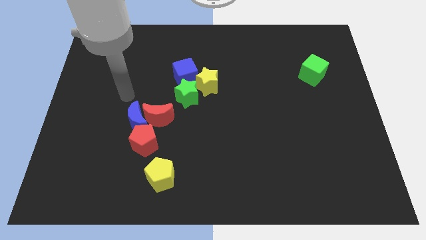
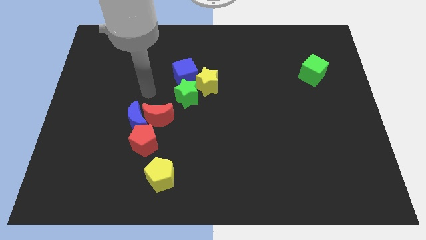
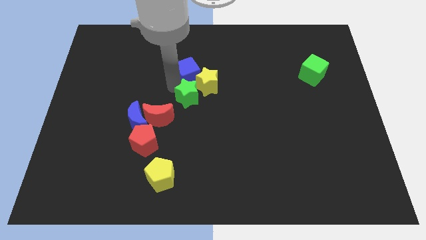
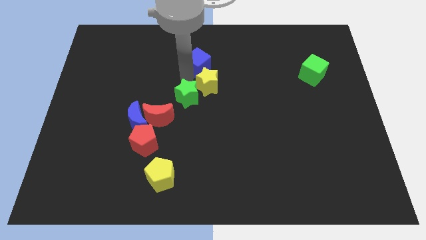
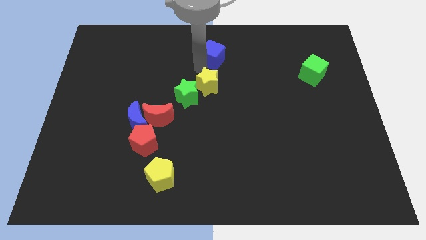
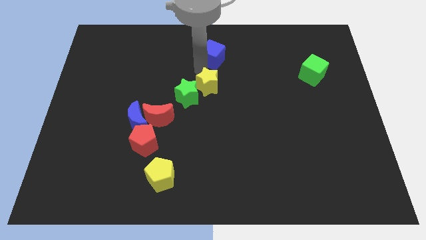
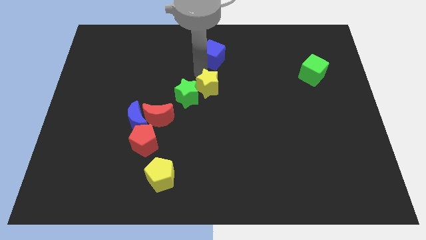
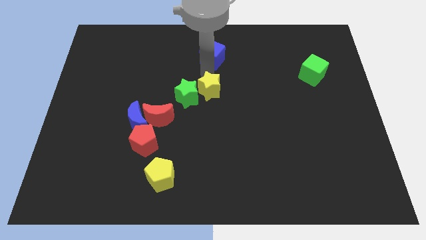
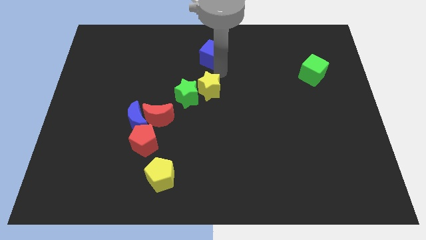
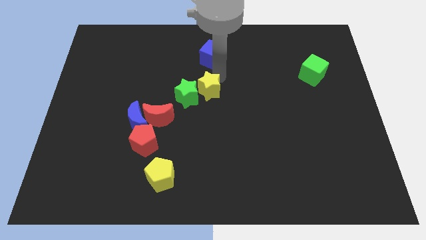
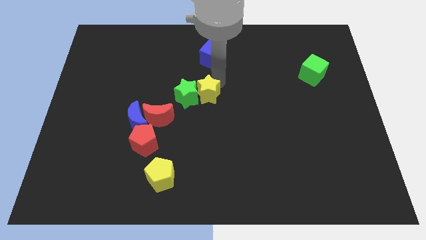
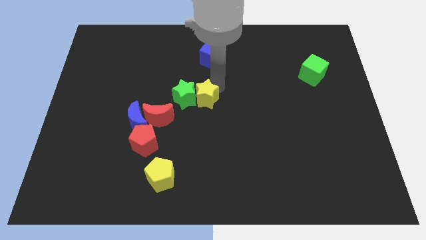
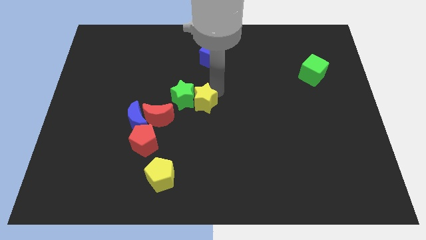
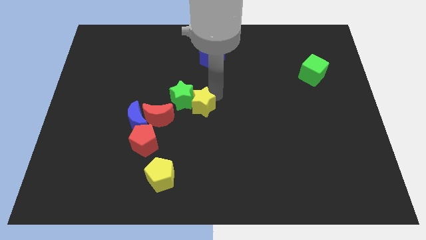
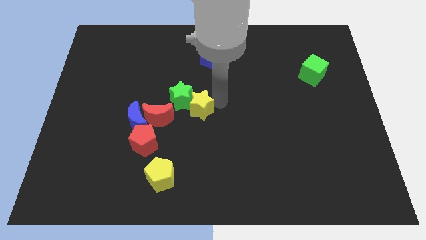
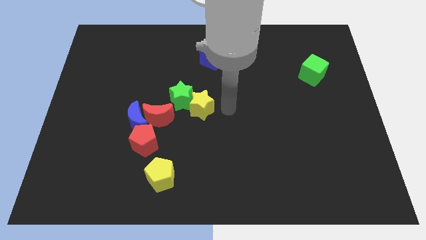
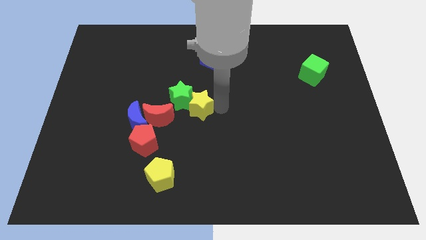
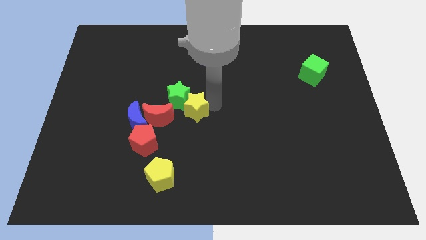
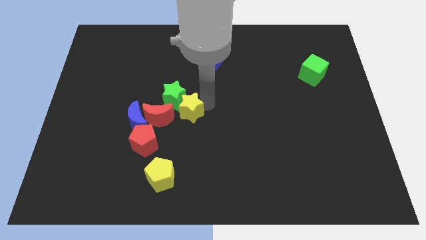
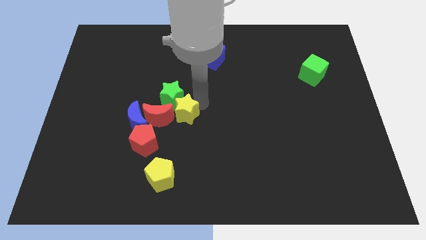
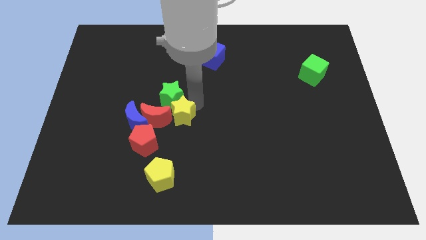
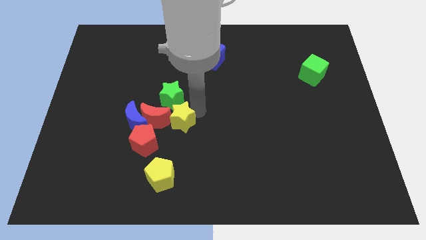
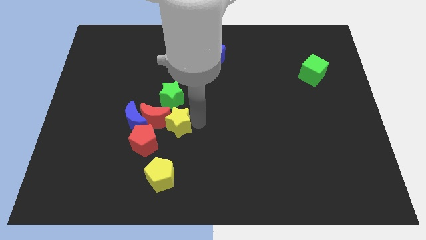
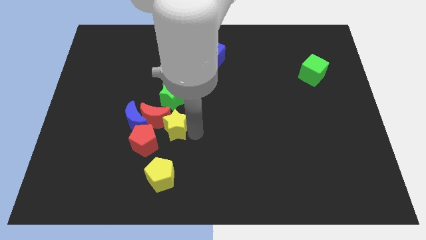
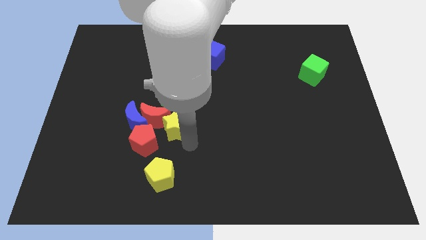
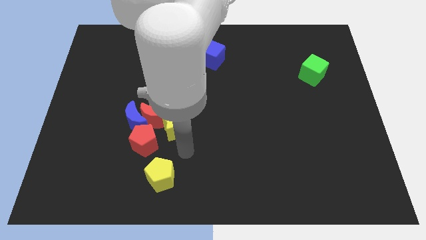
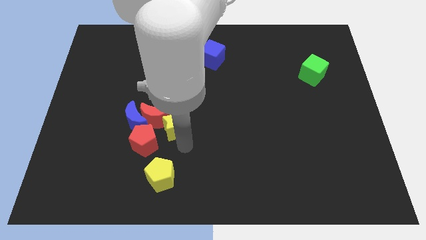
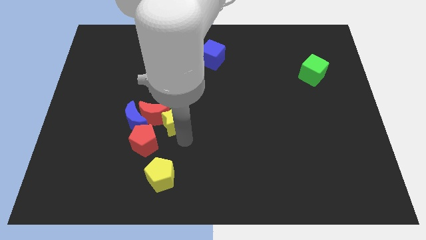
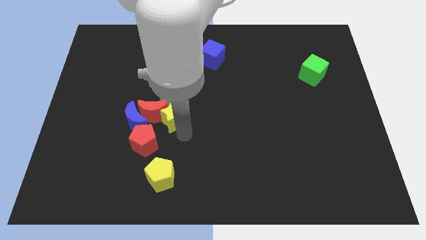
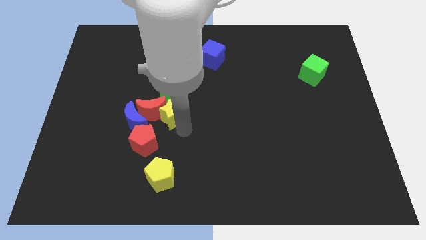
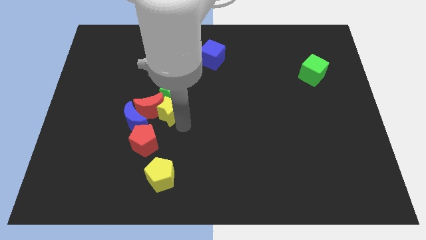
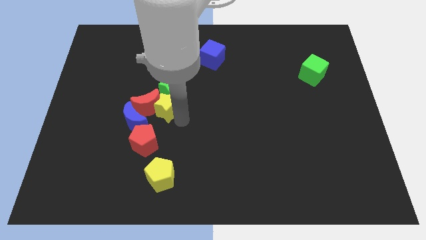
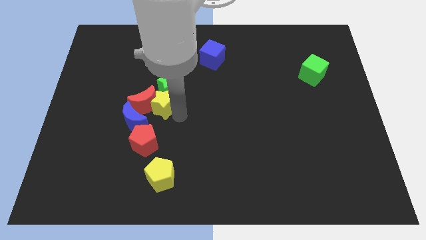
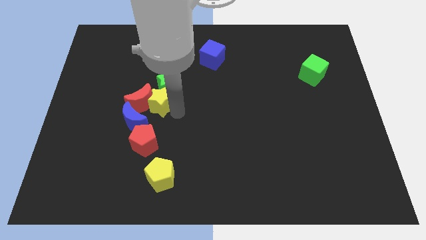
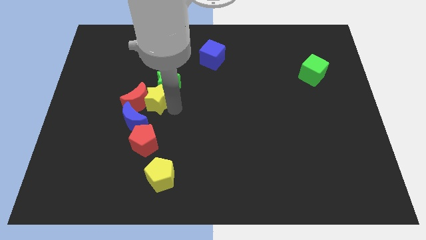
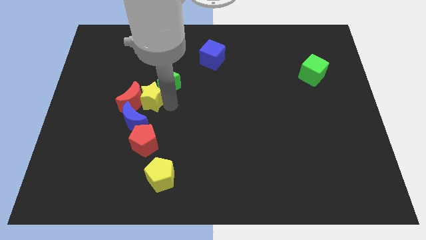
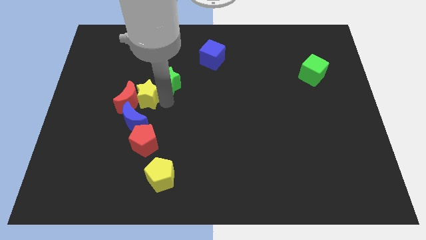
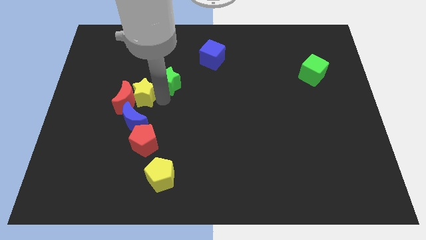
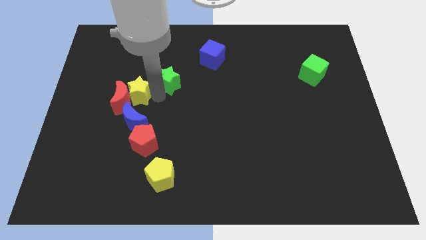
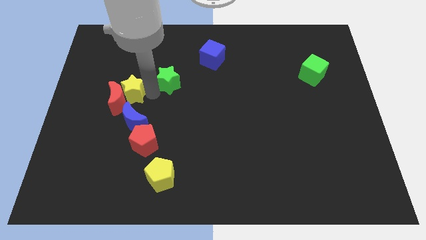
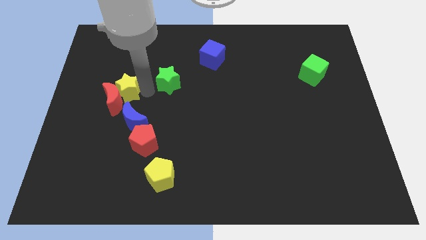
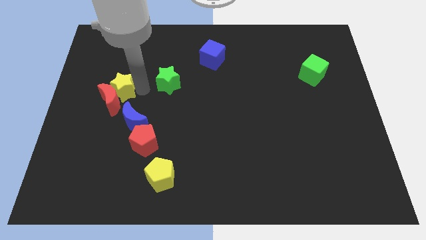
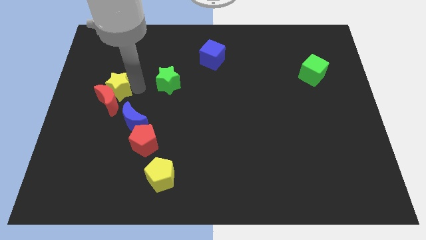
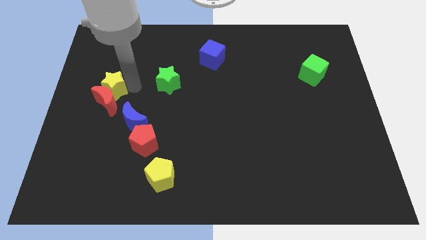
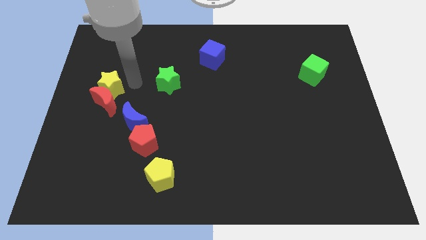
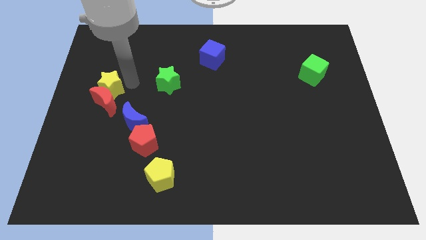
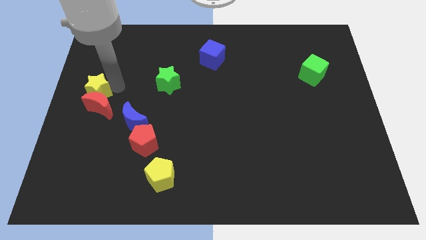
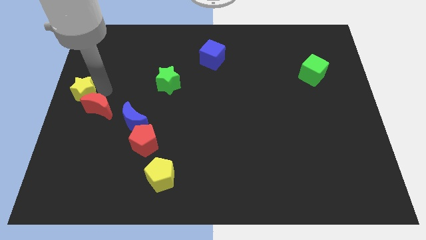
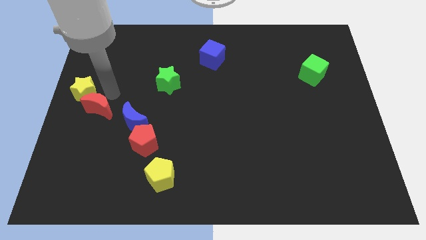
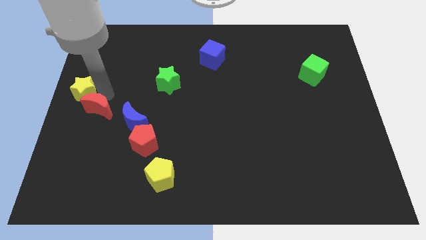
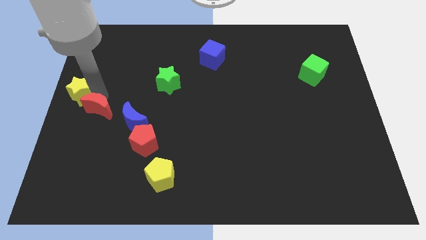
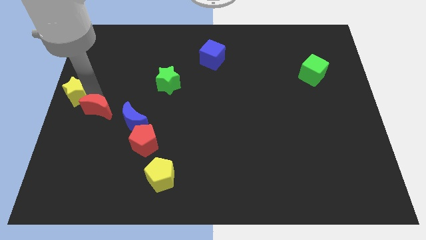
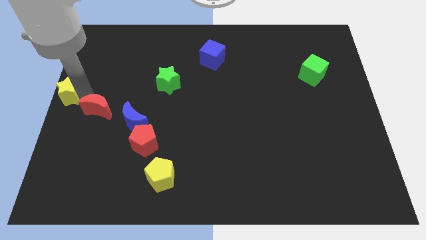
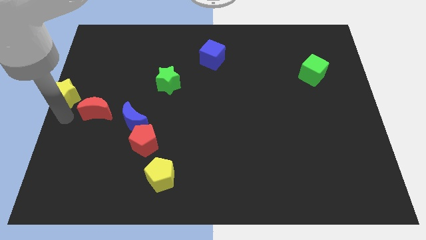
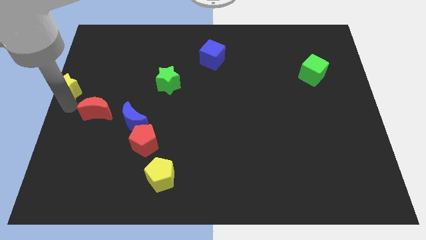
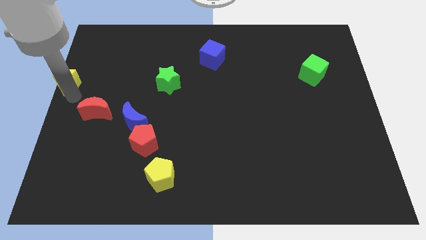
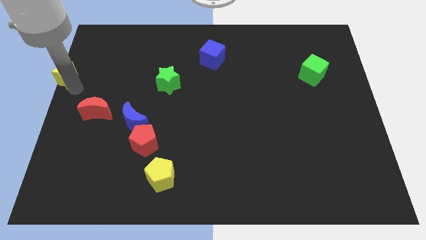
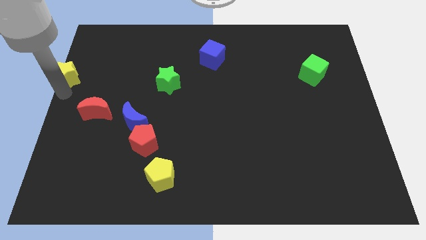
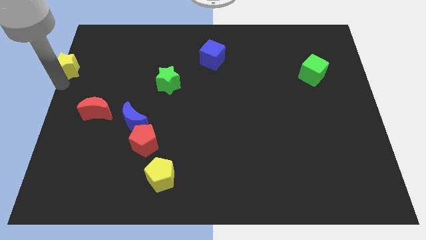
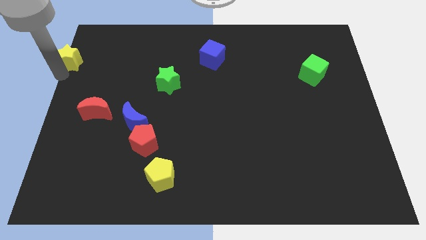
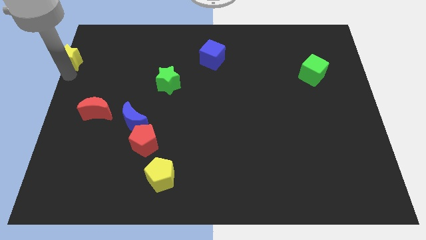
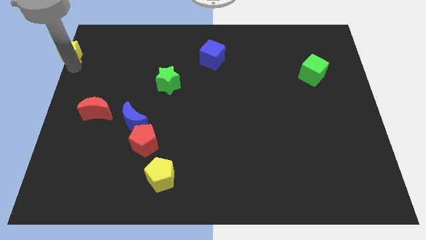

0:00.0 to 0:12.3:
slide the yellow star to the top left corner

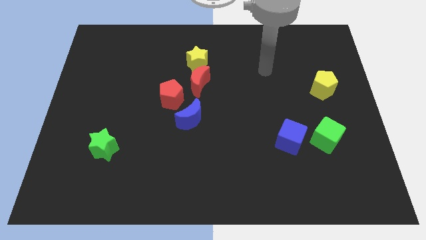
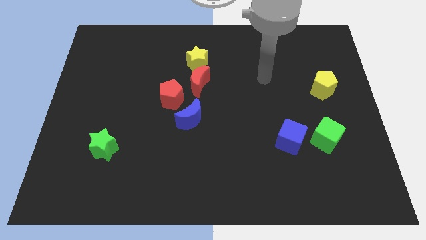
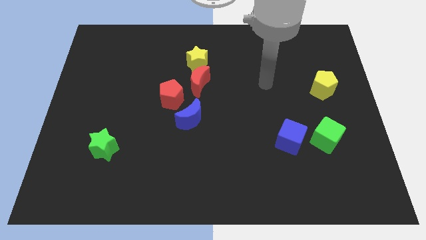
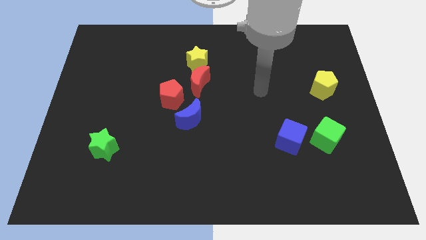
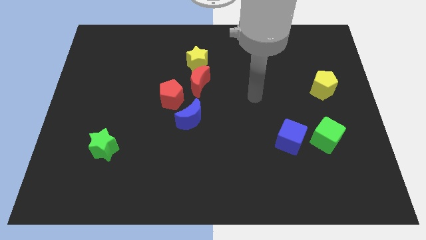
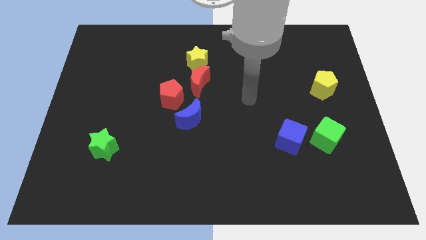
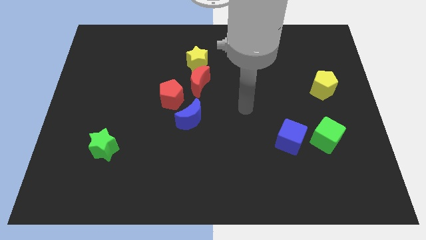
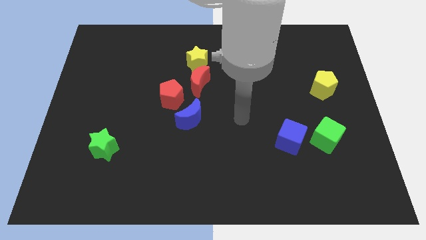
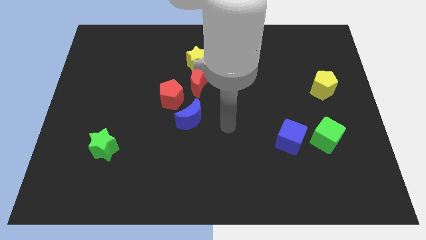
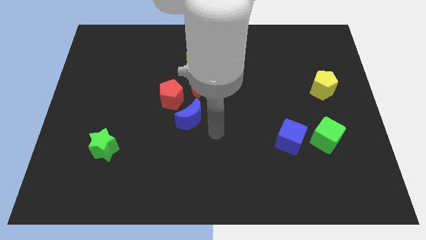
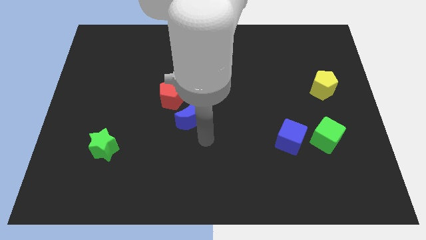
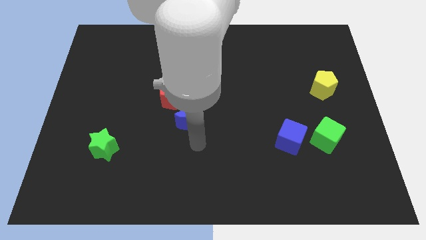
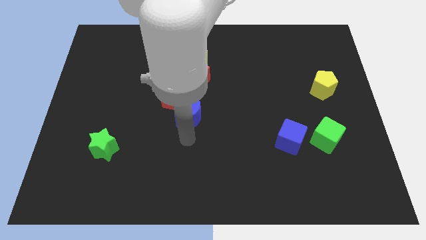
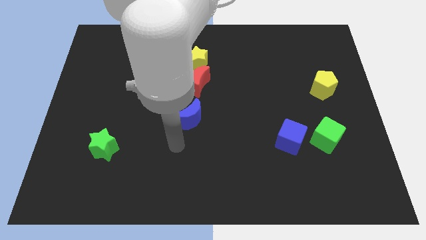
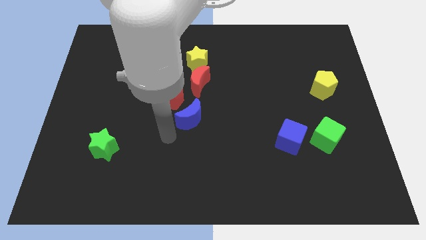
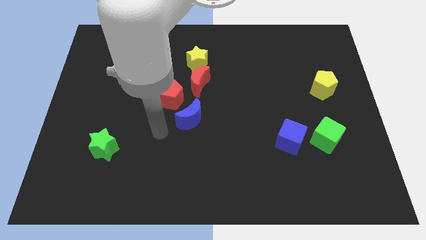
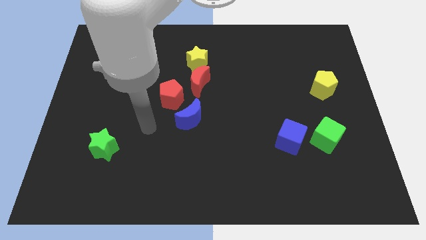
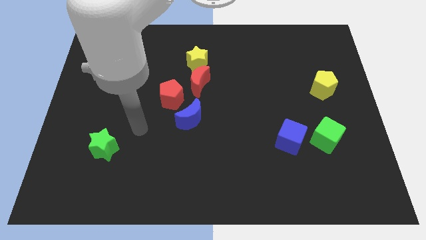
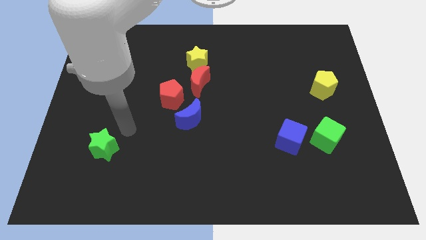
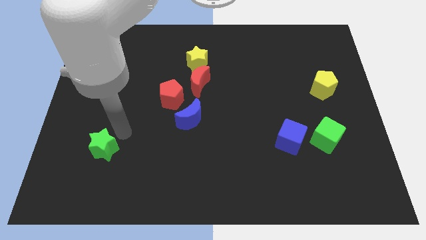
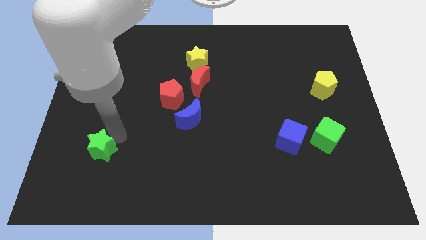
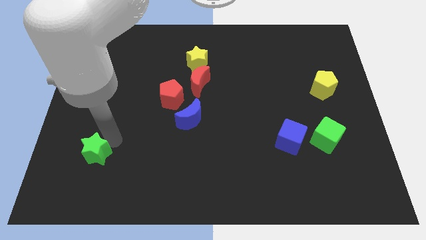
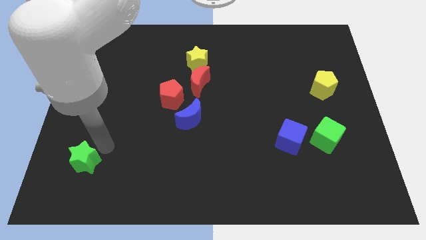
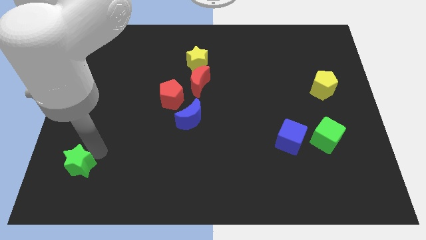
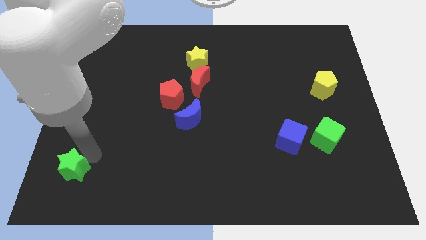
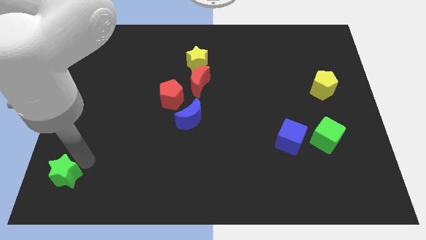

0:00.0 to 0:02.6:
push the green star to the bottom left
